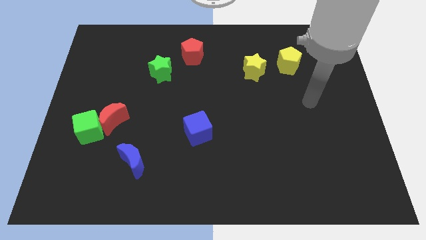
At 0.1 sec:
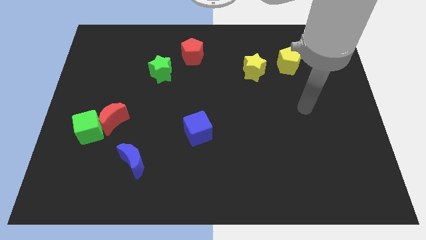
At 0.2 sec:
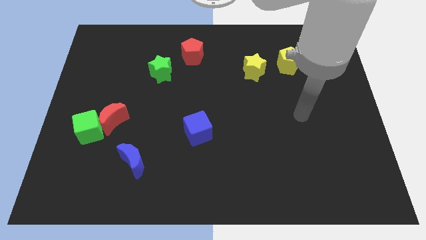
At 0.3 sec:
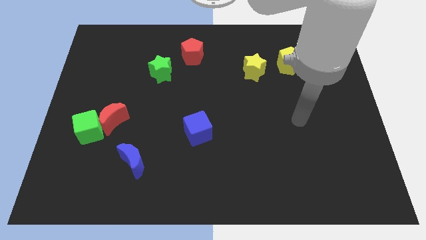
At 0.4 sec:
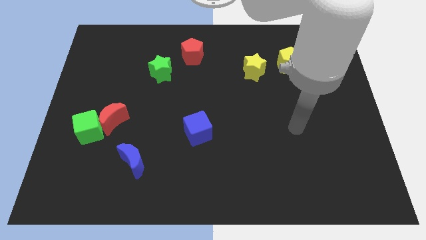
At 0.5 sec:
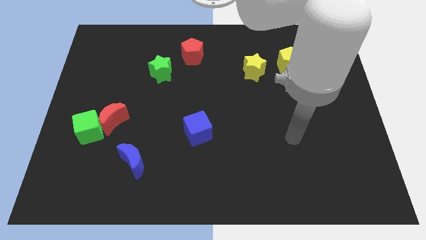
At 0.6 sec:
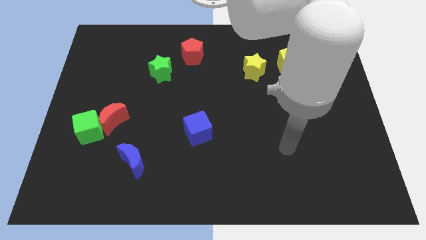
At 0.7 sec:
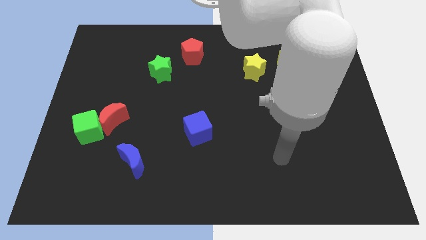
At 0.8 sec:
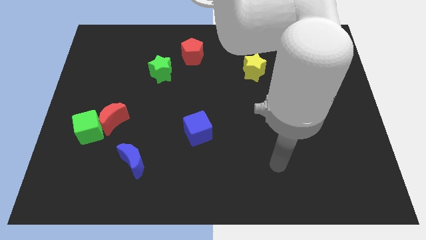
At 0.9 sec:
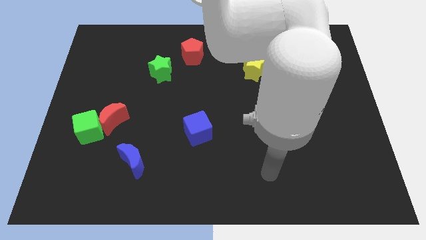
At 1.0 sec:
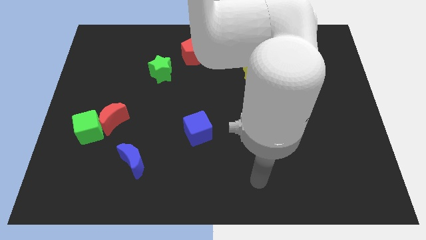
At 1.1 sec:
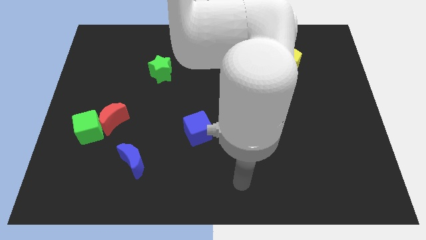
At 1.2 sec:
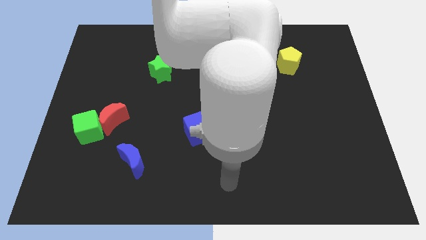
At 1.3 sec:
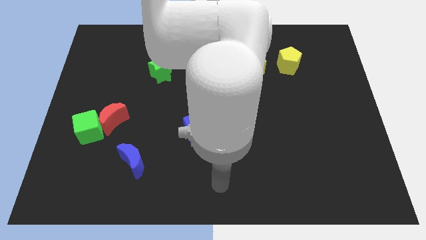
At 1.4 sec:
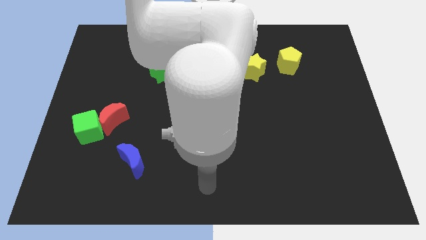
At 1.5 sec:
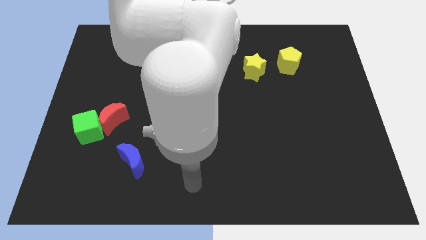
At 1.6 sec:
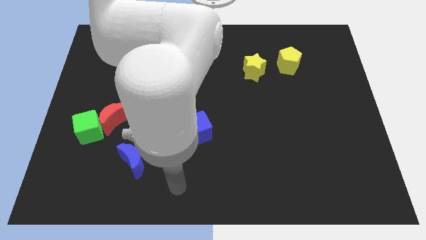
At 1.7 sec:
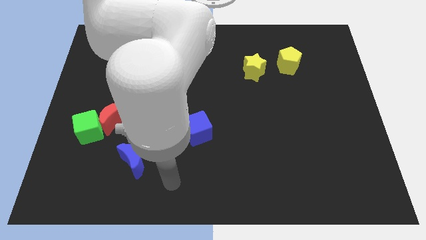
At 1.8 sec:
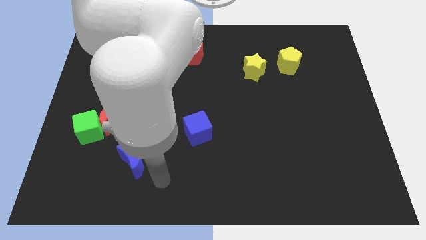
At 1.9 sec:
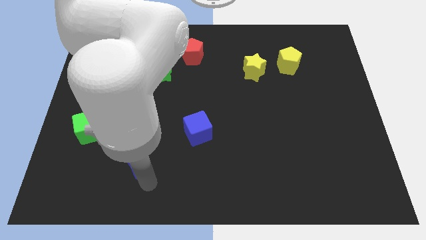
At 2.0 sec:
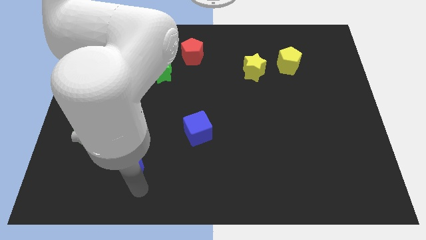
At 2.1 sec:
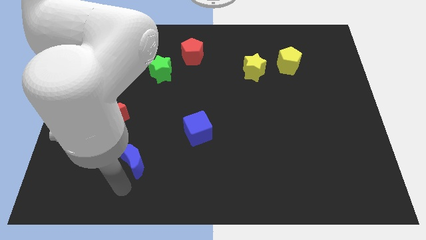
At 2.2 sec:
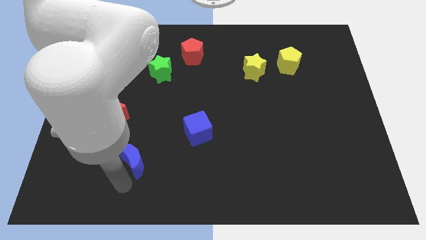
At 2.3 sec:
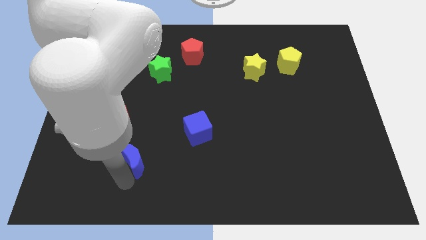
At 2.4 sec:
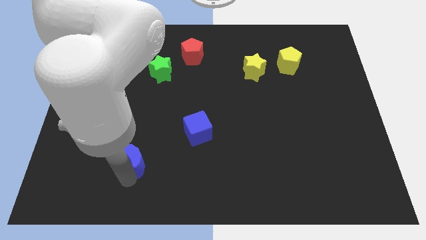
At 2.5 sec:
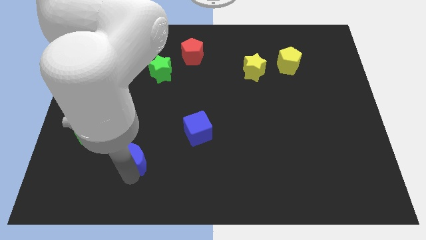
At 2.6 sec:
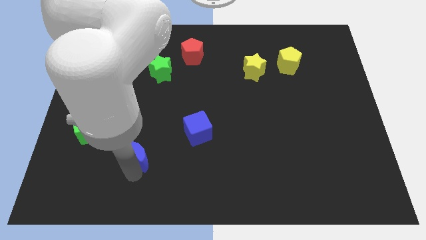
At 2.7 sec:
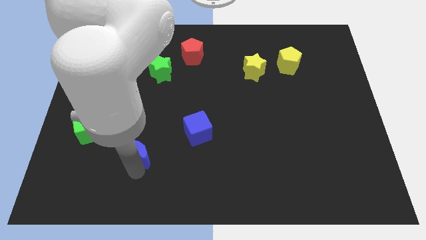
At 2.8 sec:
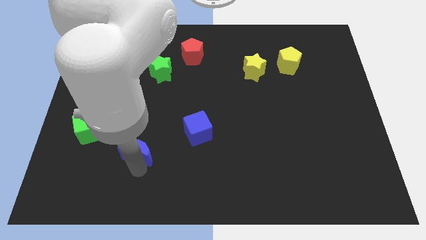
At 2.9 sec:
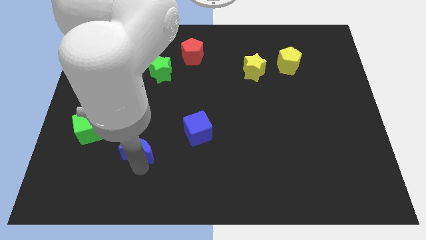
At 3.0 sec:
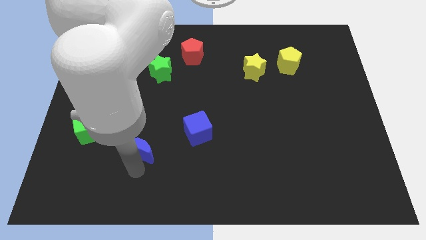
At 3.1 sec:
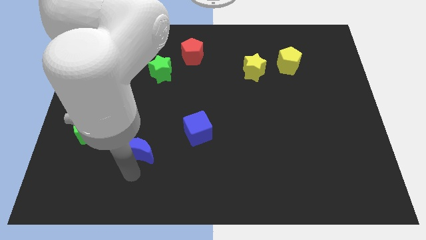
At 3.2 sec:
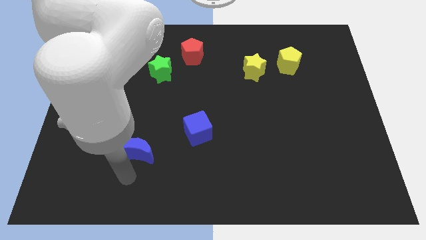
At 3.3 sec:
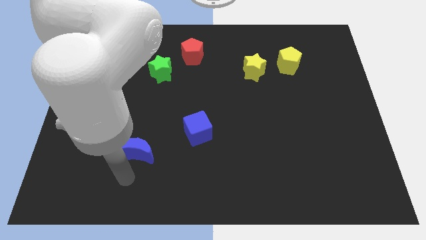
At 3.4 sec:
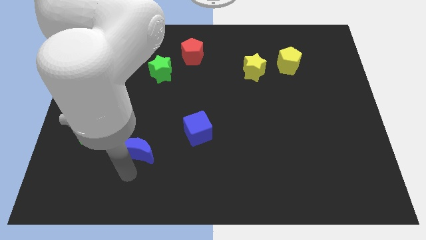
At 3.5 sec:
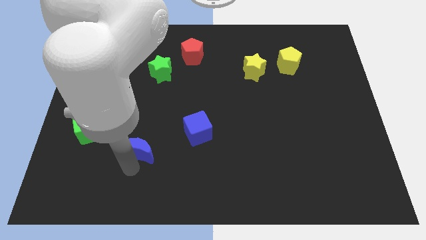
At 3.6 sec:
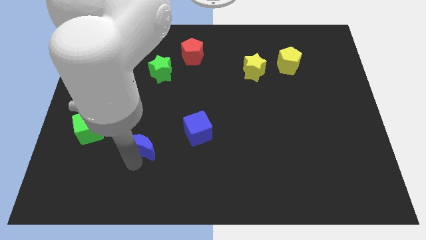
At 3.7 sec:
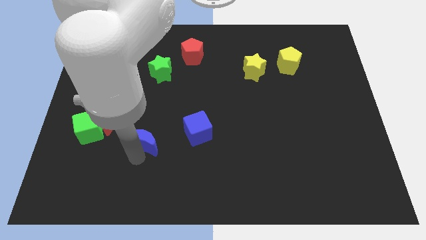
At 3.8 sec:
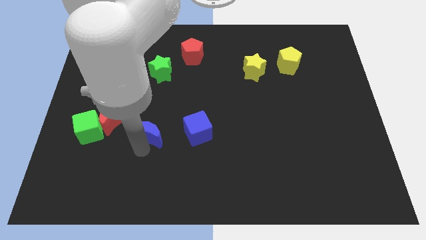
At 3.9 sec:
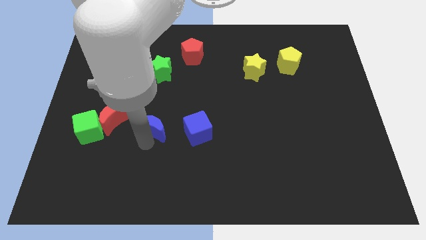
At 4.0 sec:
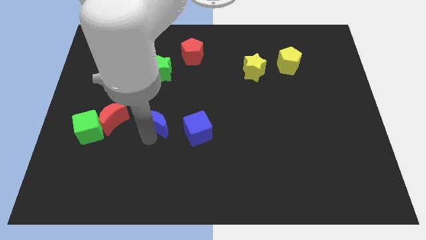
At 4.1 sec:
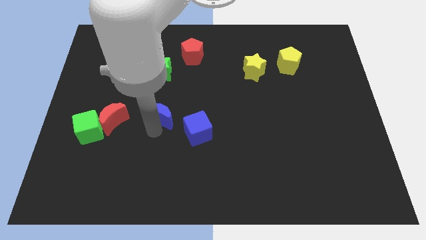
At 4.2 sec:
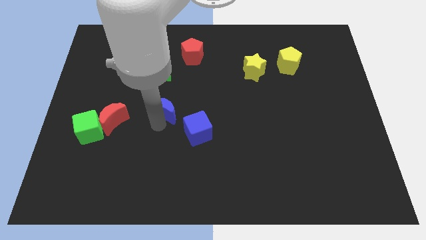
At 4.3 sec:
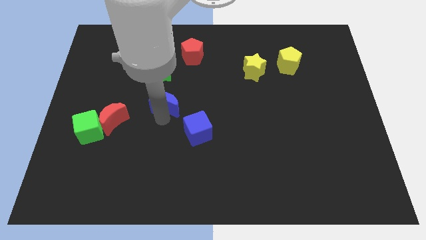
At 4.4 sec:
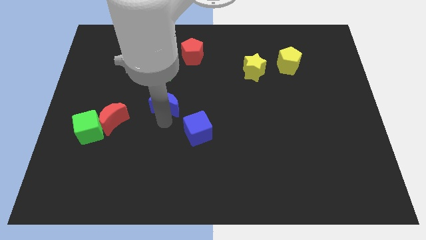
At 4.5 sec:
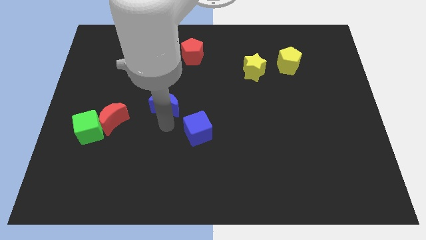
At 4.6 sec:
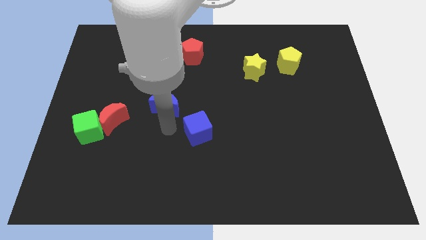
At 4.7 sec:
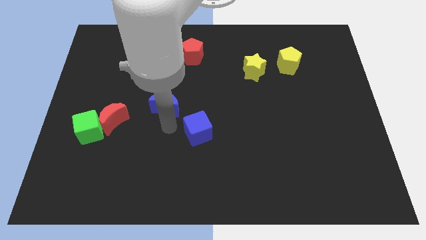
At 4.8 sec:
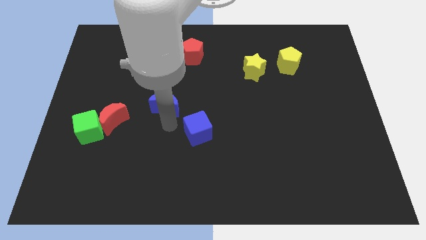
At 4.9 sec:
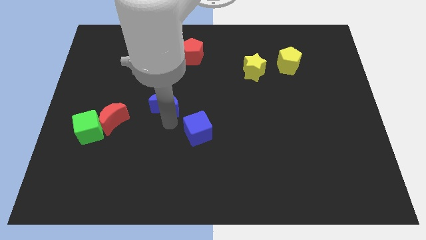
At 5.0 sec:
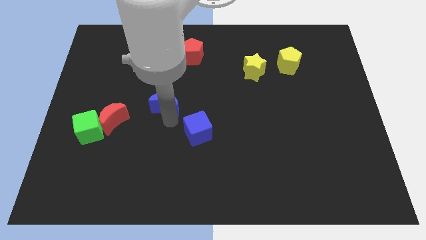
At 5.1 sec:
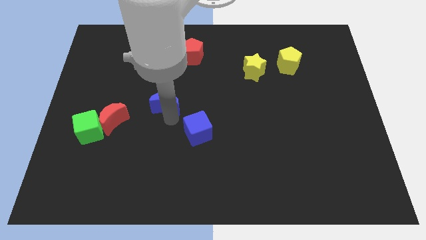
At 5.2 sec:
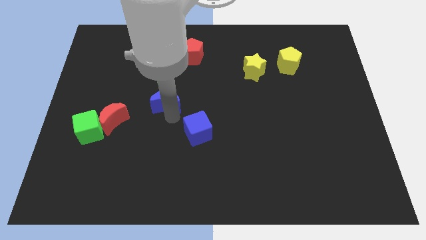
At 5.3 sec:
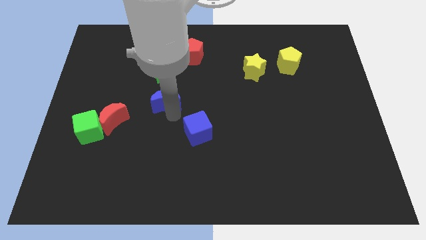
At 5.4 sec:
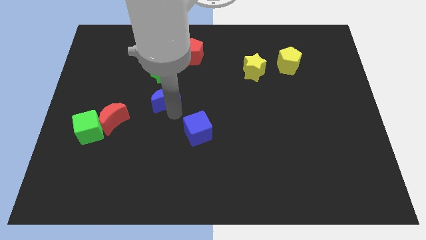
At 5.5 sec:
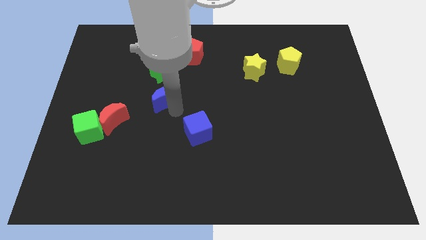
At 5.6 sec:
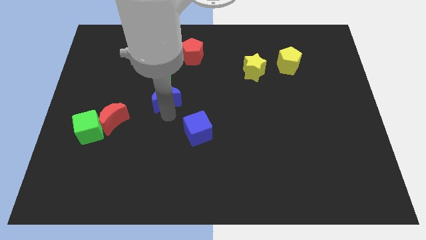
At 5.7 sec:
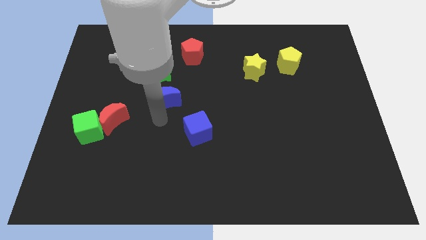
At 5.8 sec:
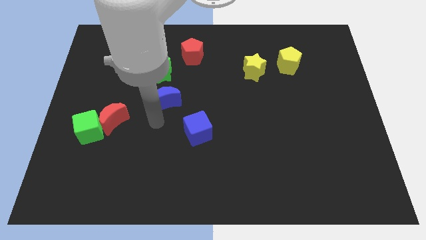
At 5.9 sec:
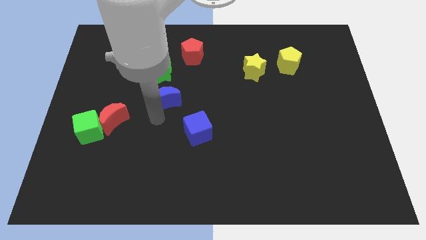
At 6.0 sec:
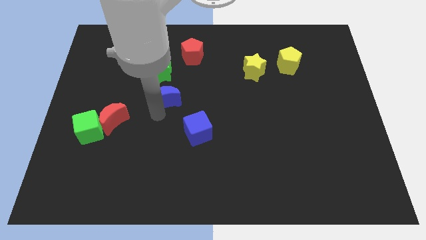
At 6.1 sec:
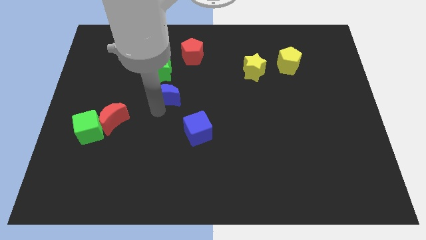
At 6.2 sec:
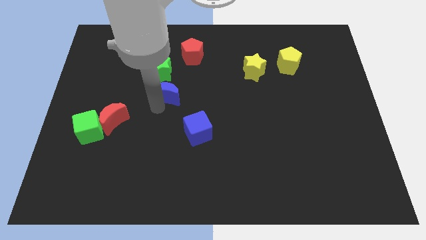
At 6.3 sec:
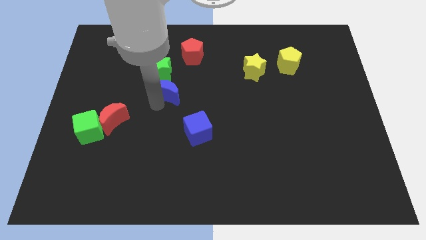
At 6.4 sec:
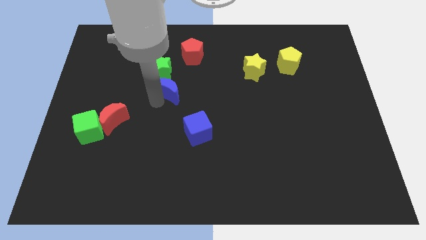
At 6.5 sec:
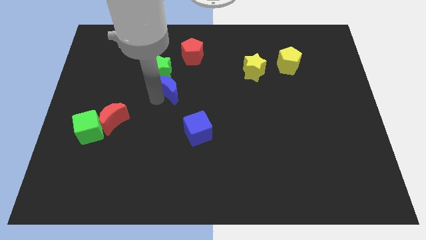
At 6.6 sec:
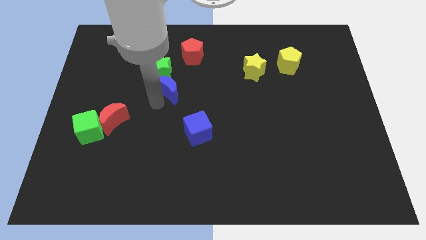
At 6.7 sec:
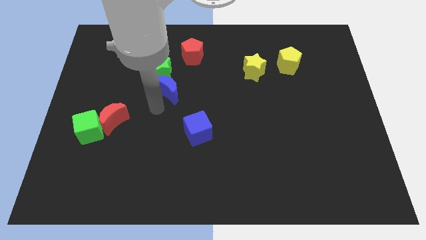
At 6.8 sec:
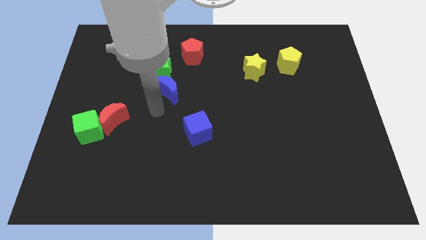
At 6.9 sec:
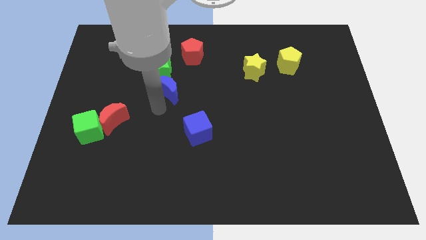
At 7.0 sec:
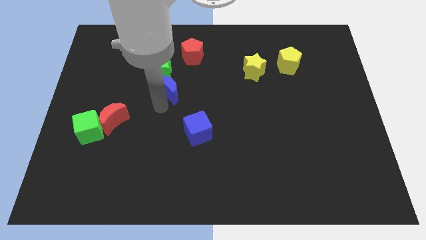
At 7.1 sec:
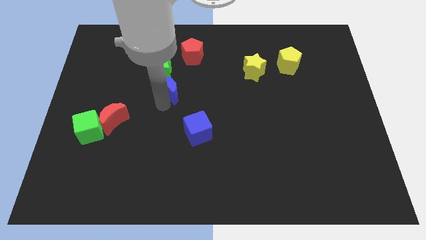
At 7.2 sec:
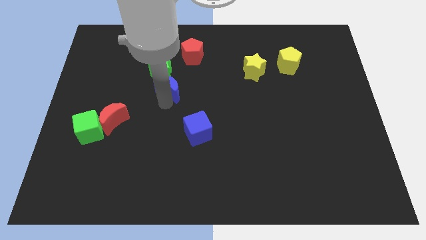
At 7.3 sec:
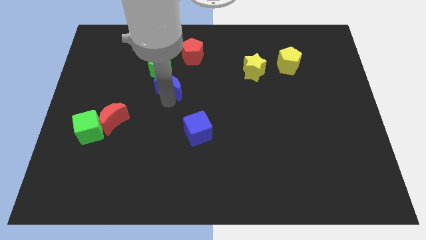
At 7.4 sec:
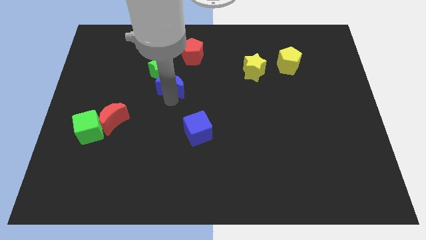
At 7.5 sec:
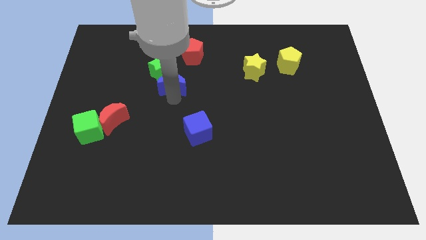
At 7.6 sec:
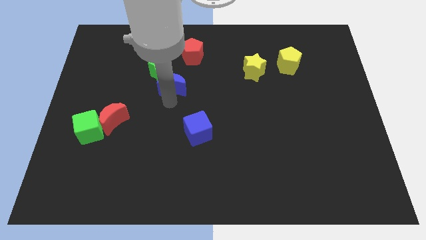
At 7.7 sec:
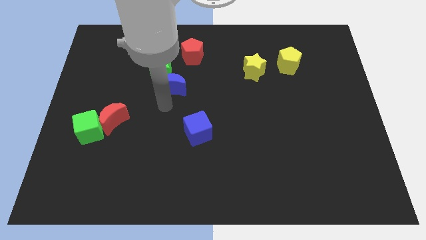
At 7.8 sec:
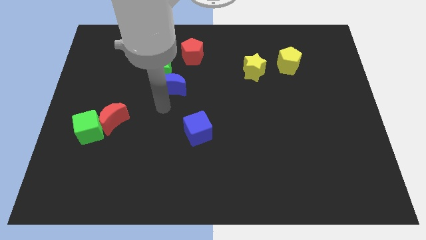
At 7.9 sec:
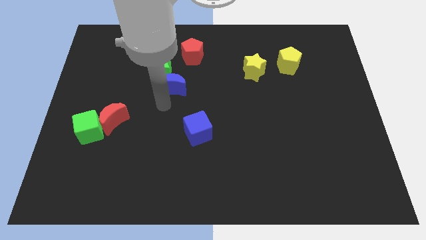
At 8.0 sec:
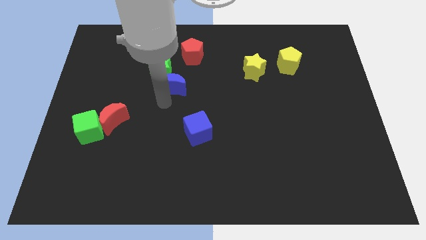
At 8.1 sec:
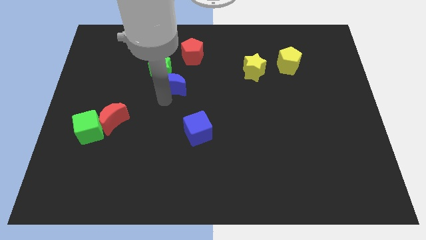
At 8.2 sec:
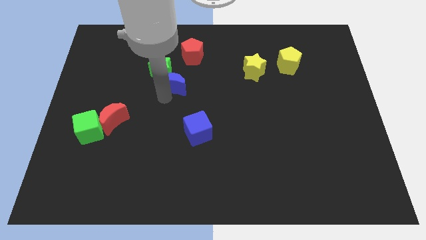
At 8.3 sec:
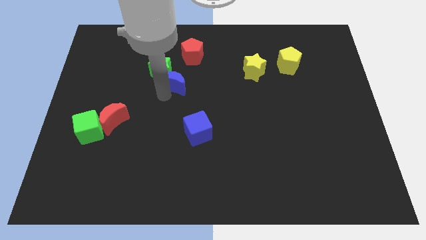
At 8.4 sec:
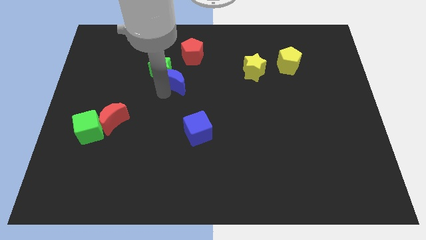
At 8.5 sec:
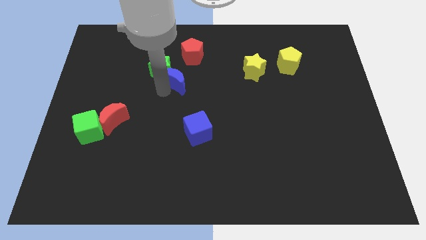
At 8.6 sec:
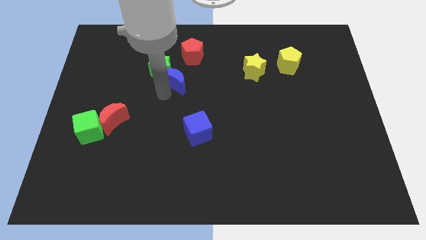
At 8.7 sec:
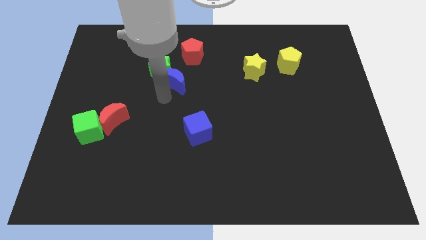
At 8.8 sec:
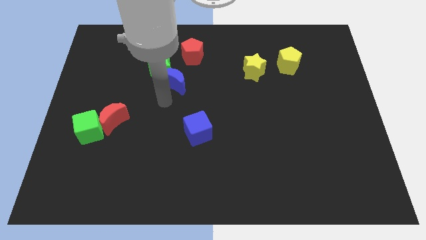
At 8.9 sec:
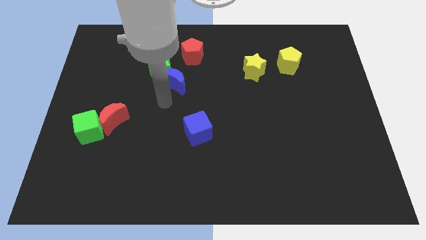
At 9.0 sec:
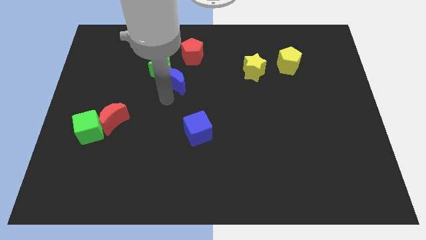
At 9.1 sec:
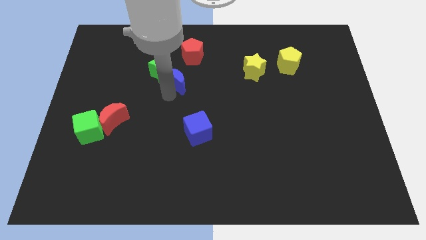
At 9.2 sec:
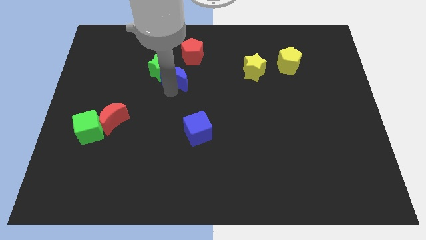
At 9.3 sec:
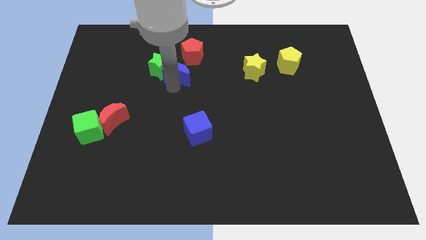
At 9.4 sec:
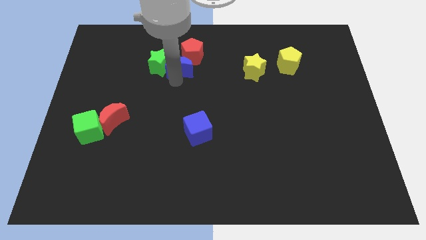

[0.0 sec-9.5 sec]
push the blue moon to the red pentagon
